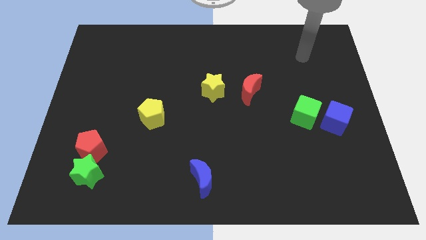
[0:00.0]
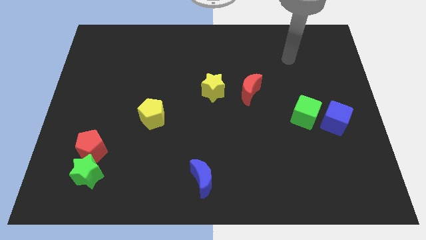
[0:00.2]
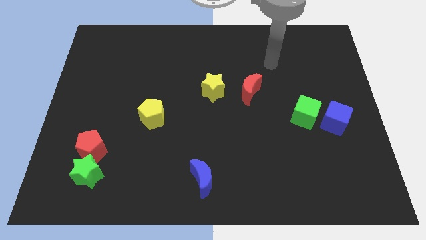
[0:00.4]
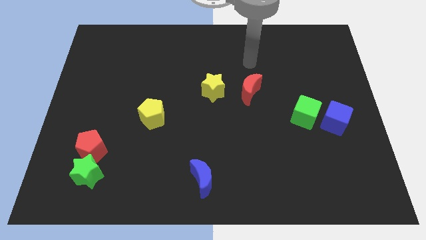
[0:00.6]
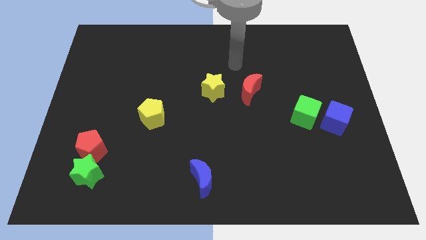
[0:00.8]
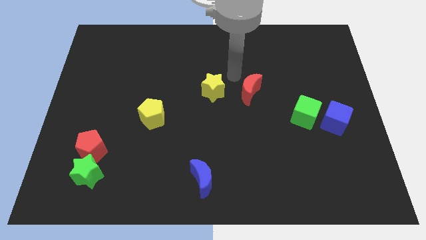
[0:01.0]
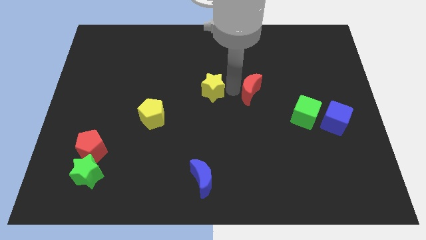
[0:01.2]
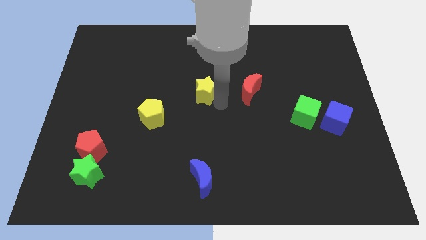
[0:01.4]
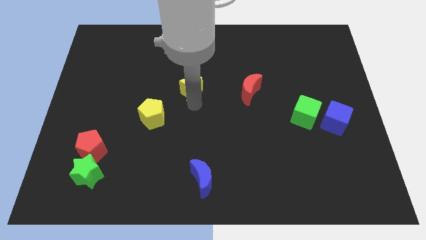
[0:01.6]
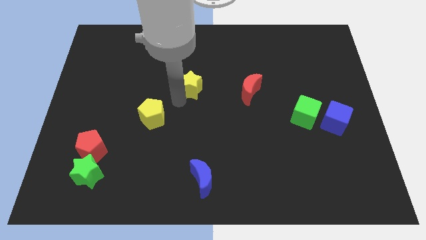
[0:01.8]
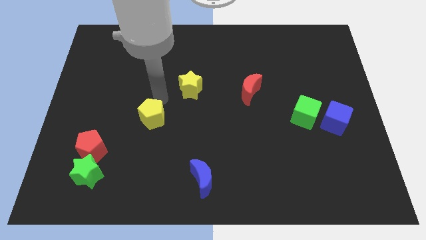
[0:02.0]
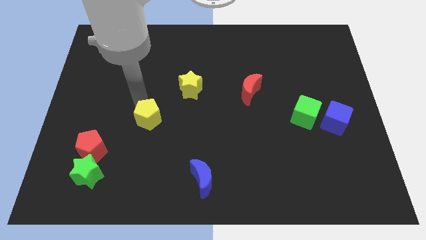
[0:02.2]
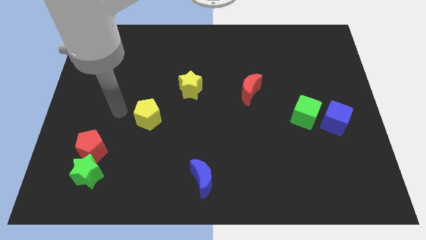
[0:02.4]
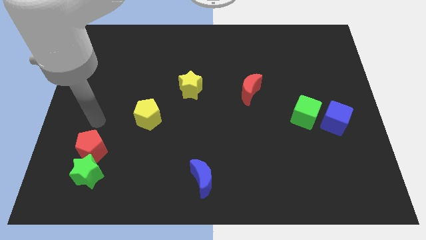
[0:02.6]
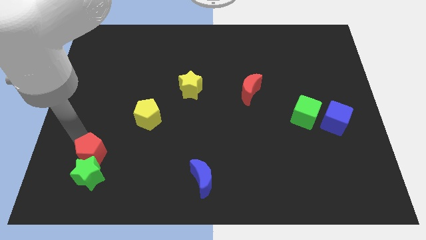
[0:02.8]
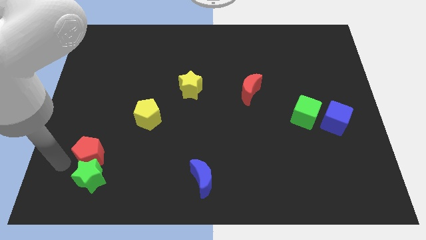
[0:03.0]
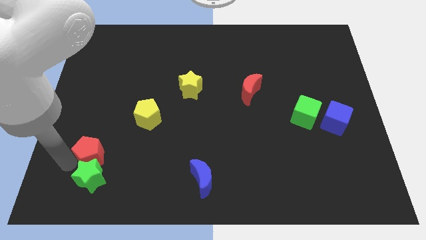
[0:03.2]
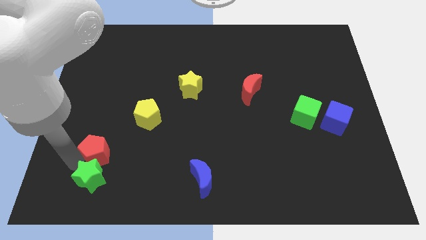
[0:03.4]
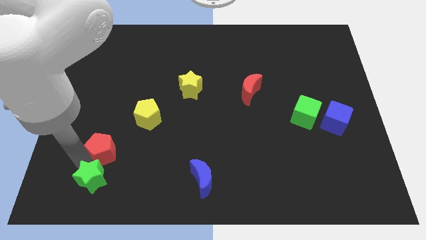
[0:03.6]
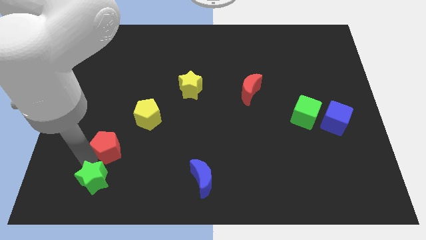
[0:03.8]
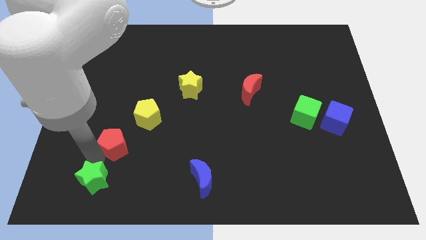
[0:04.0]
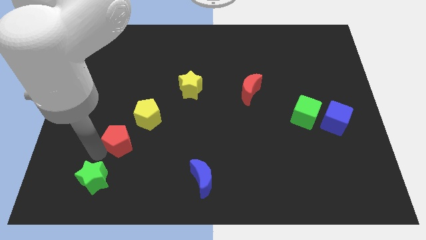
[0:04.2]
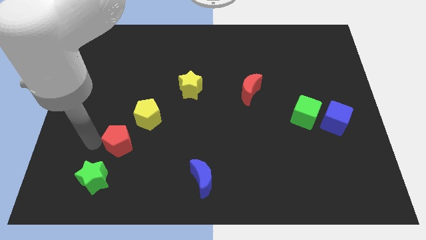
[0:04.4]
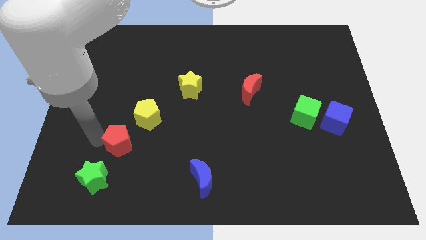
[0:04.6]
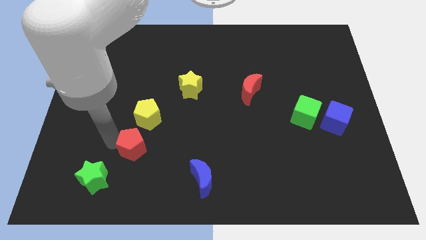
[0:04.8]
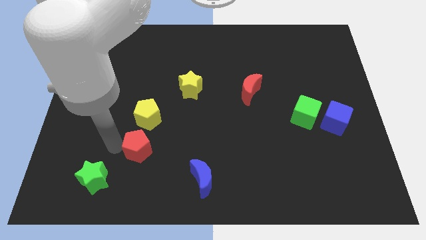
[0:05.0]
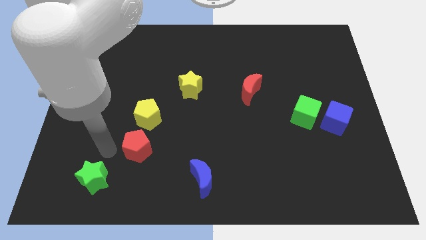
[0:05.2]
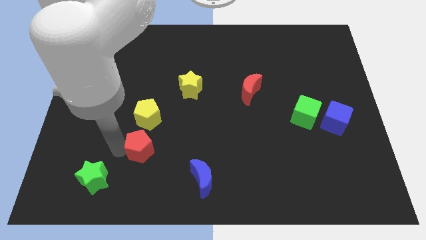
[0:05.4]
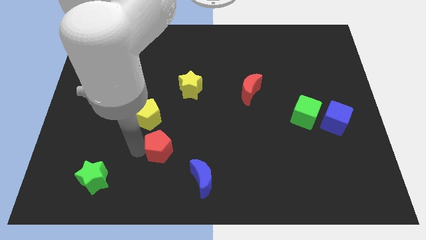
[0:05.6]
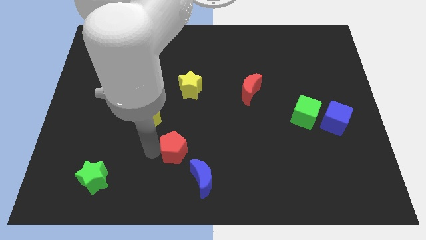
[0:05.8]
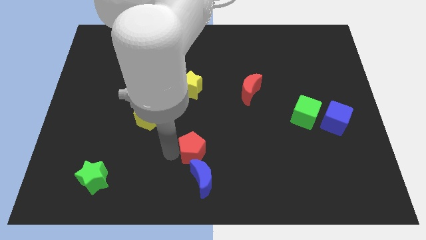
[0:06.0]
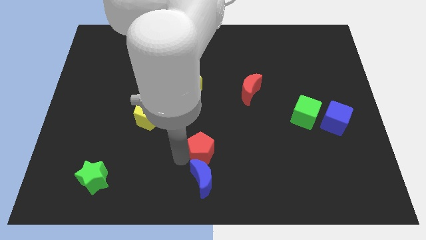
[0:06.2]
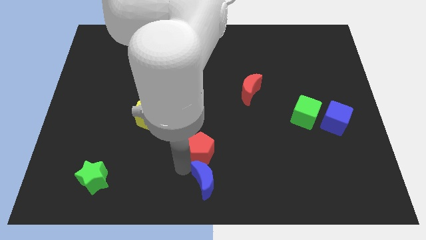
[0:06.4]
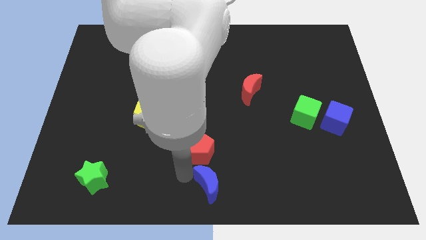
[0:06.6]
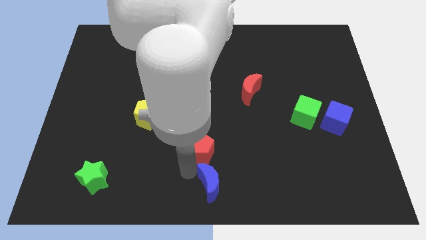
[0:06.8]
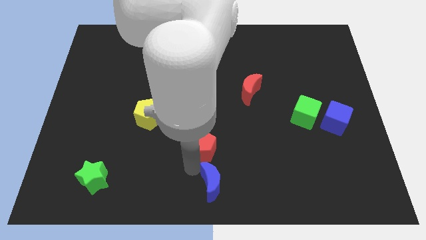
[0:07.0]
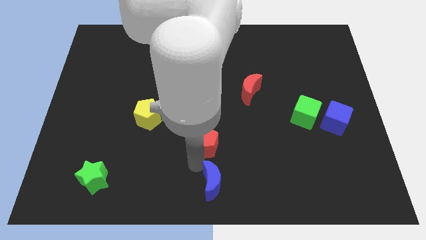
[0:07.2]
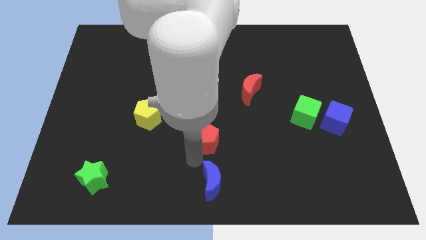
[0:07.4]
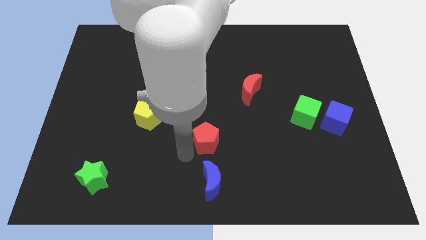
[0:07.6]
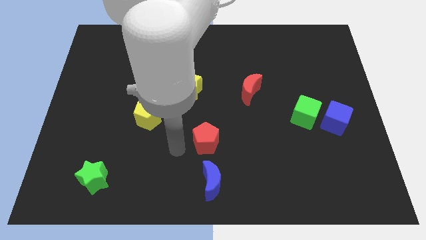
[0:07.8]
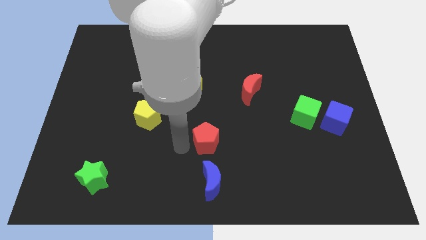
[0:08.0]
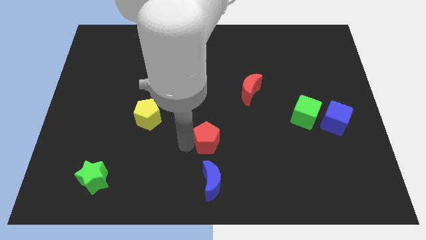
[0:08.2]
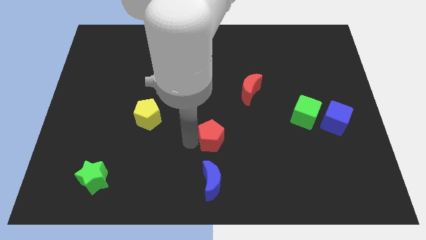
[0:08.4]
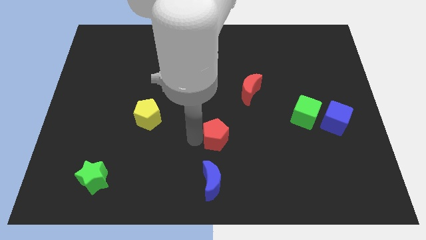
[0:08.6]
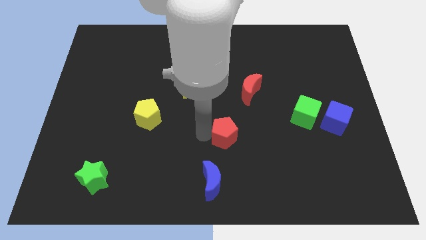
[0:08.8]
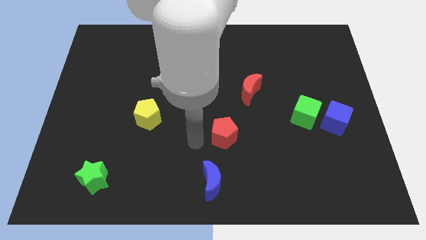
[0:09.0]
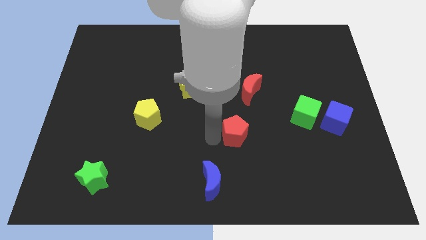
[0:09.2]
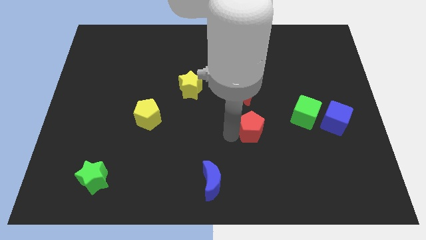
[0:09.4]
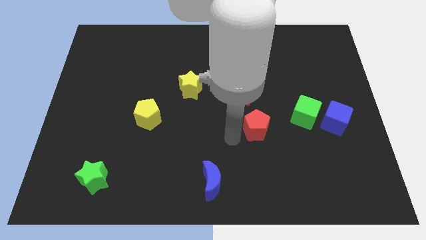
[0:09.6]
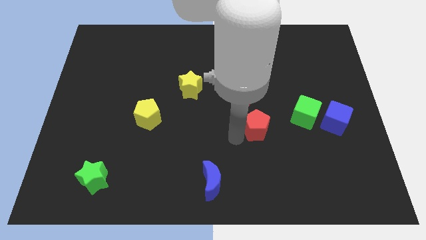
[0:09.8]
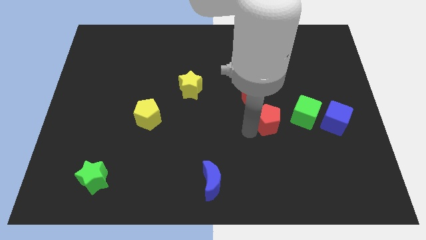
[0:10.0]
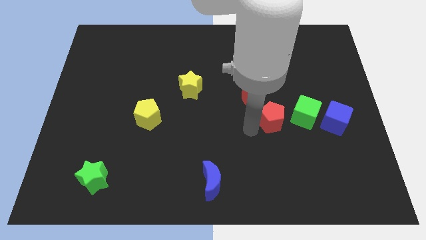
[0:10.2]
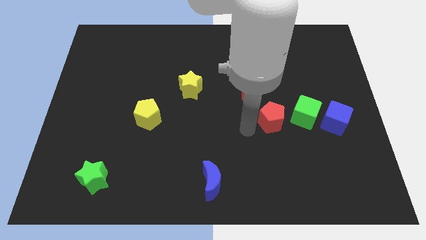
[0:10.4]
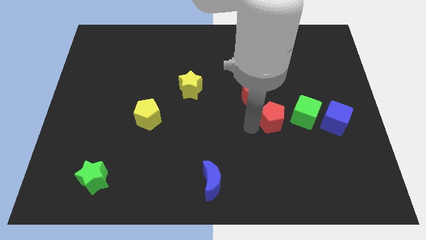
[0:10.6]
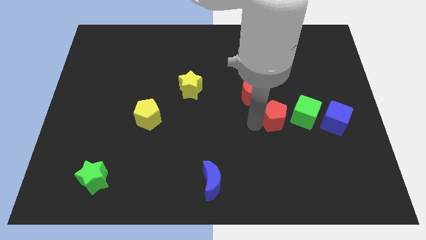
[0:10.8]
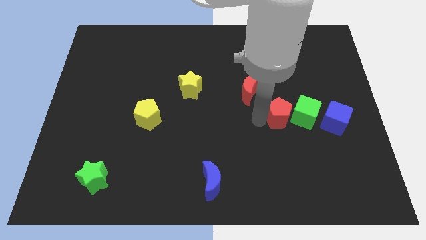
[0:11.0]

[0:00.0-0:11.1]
push the red pentagon to the green cube
